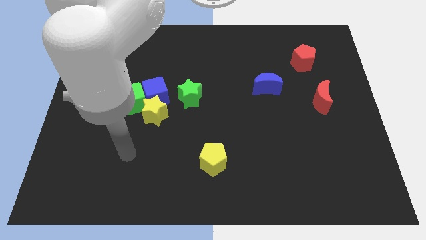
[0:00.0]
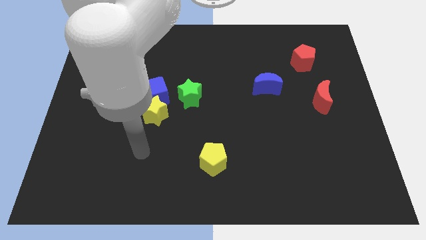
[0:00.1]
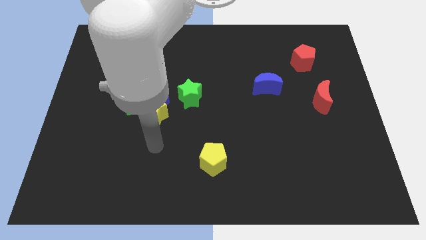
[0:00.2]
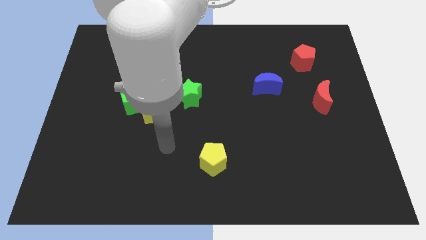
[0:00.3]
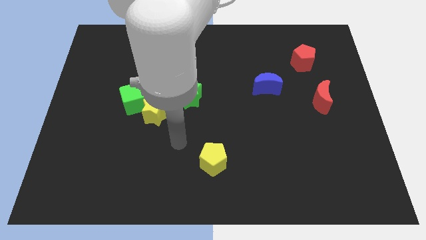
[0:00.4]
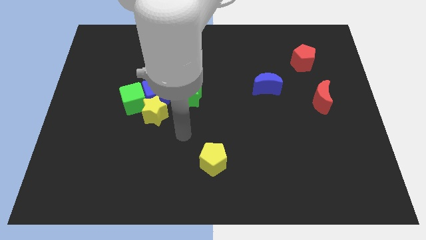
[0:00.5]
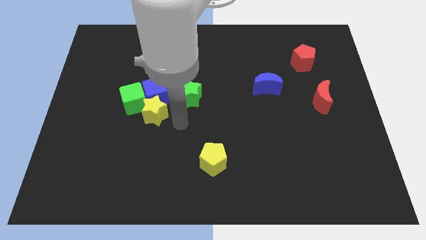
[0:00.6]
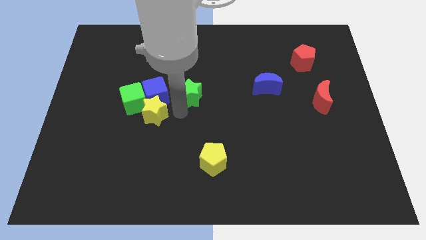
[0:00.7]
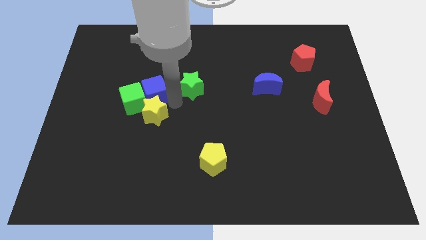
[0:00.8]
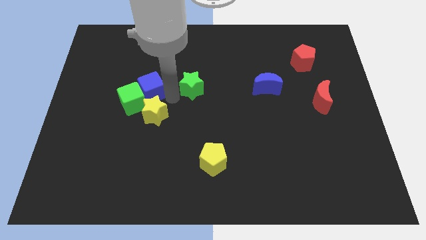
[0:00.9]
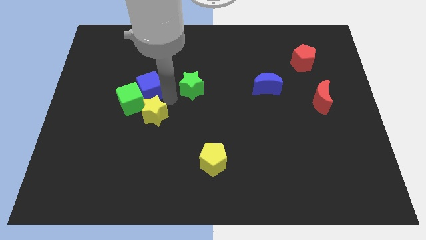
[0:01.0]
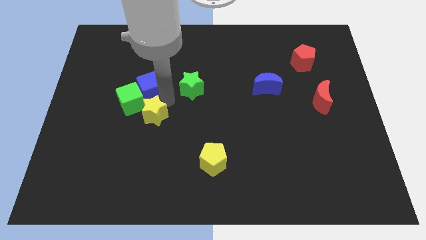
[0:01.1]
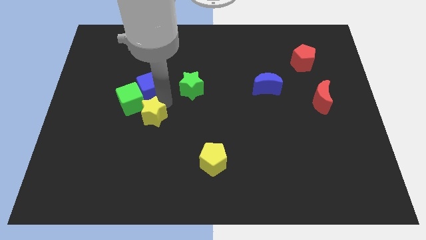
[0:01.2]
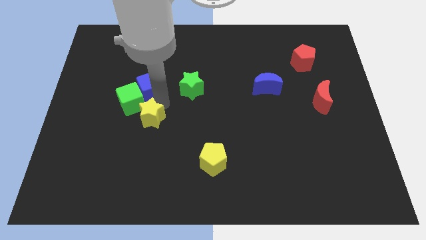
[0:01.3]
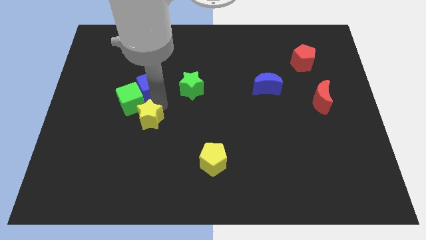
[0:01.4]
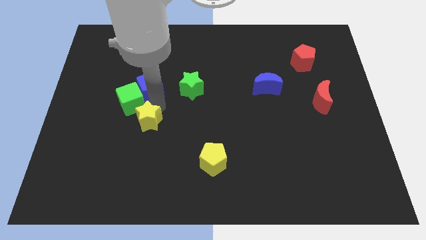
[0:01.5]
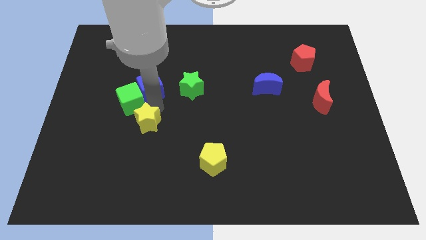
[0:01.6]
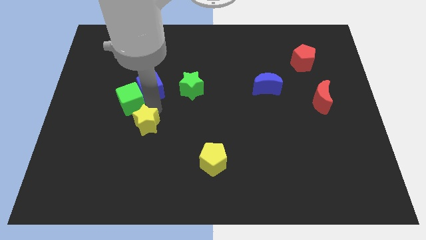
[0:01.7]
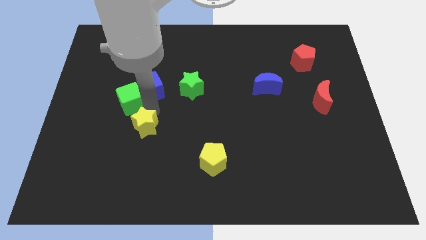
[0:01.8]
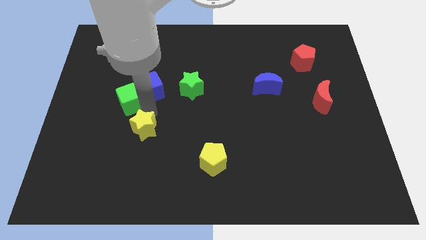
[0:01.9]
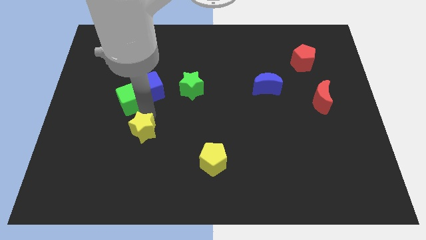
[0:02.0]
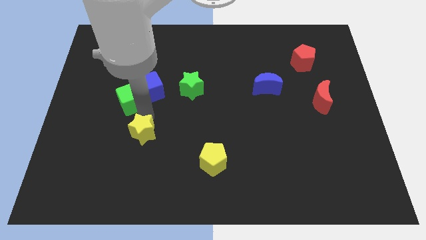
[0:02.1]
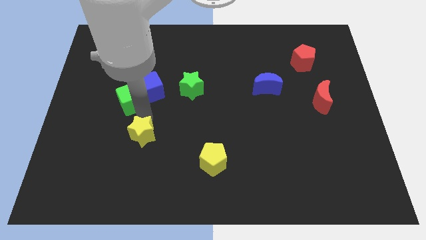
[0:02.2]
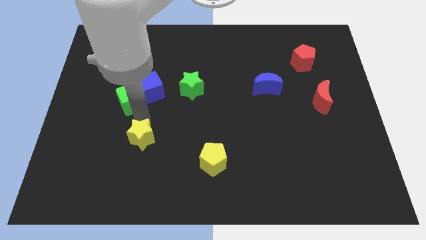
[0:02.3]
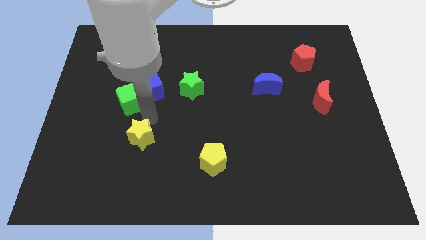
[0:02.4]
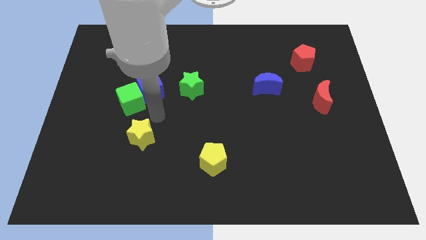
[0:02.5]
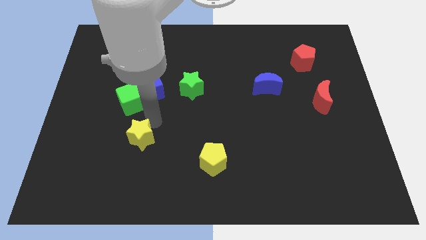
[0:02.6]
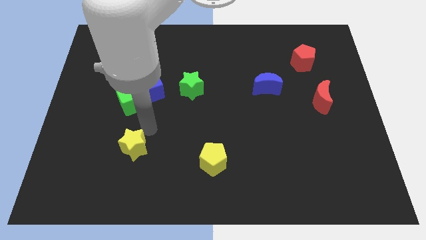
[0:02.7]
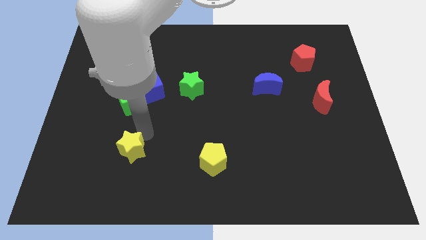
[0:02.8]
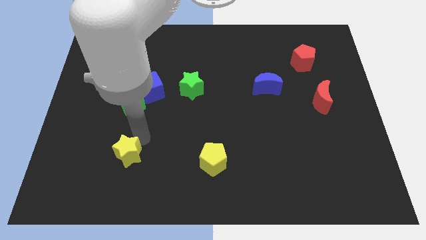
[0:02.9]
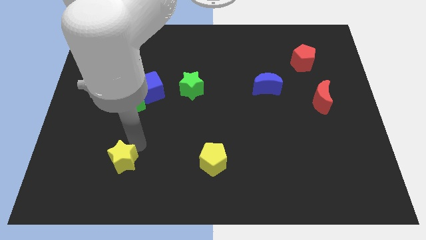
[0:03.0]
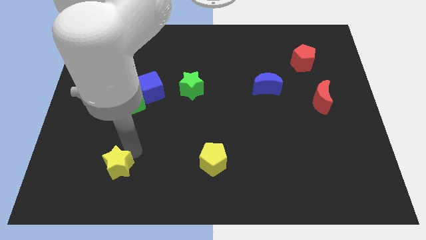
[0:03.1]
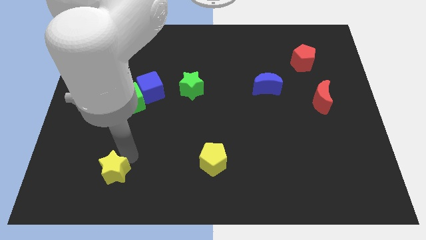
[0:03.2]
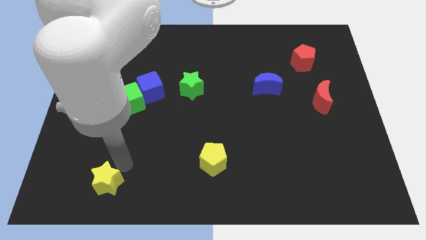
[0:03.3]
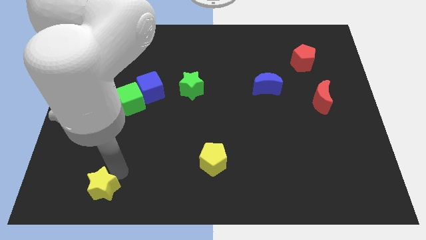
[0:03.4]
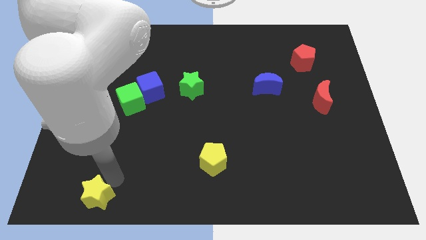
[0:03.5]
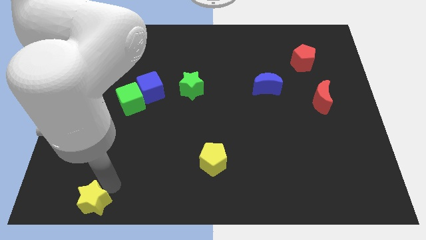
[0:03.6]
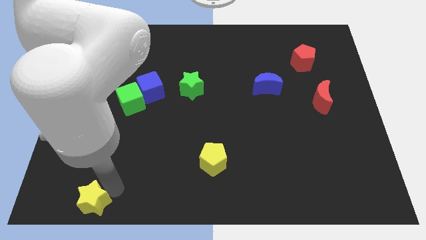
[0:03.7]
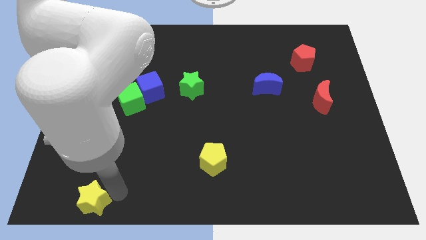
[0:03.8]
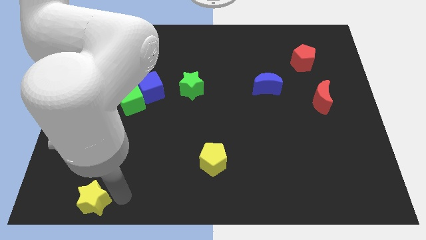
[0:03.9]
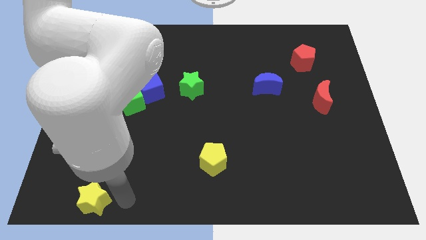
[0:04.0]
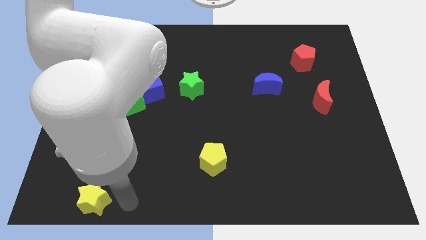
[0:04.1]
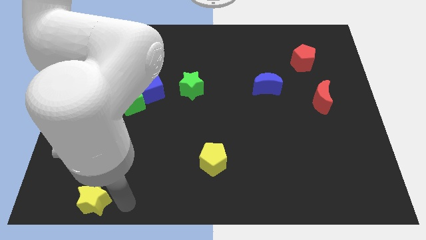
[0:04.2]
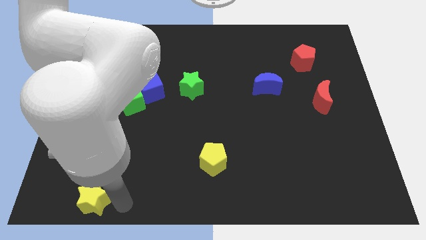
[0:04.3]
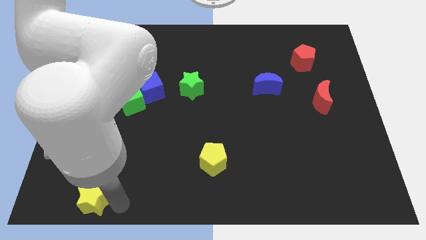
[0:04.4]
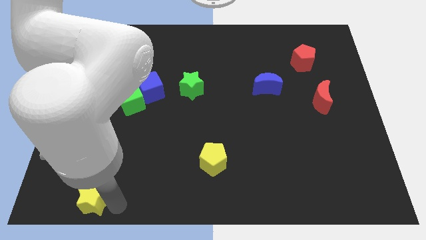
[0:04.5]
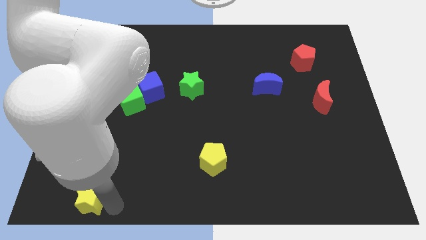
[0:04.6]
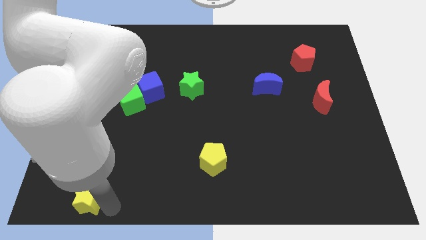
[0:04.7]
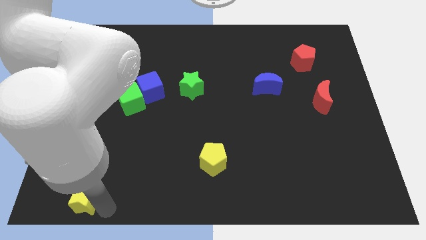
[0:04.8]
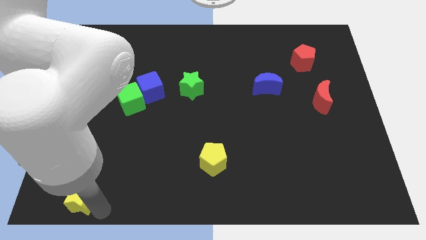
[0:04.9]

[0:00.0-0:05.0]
push the yellow star to the lower left corner

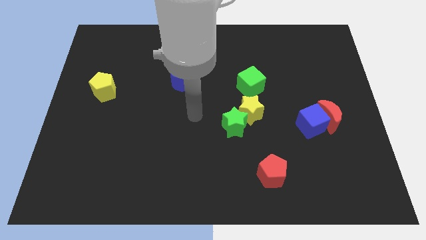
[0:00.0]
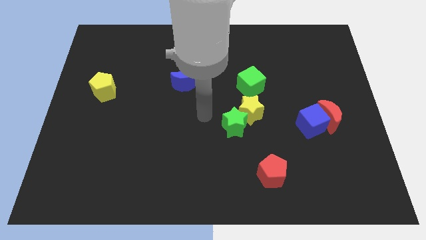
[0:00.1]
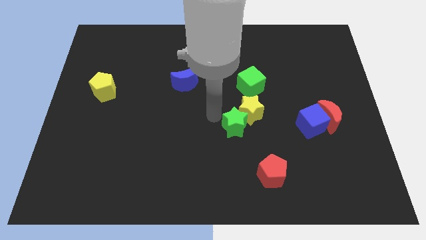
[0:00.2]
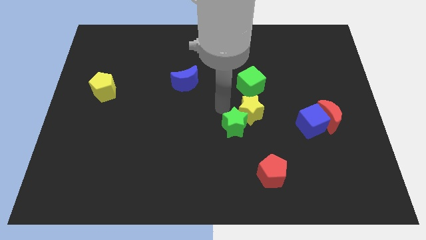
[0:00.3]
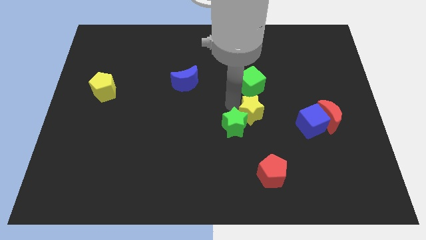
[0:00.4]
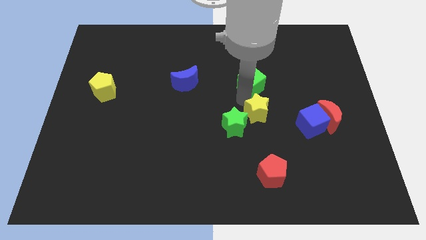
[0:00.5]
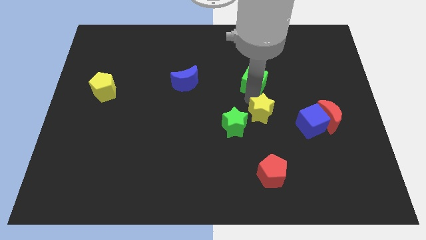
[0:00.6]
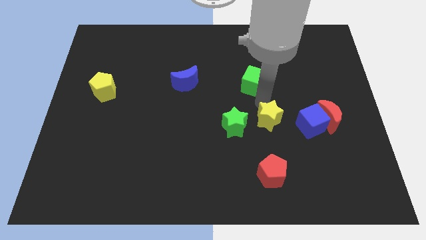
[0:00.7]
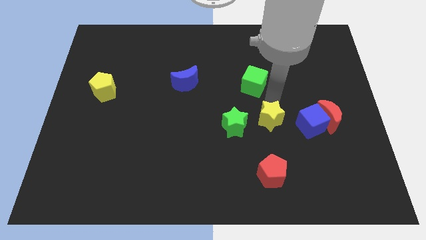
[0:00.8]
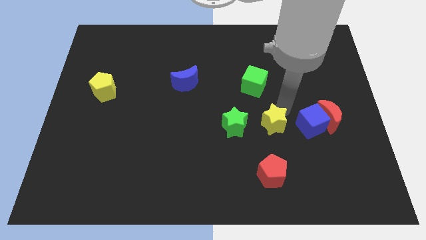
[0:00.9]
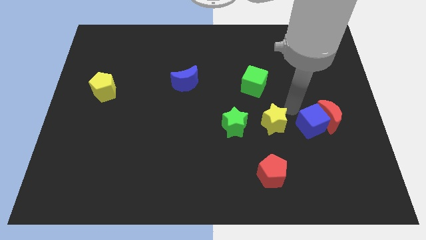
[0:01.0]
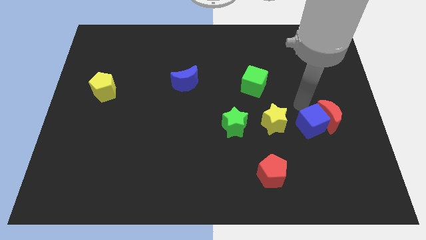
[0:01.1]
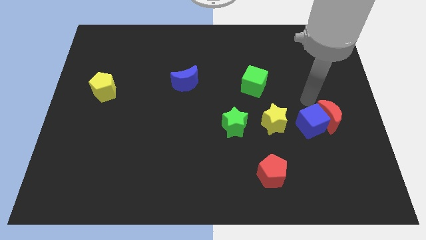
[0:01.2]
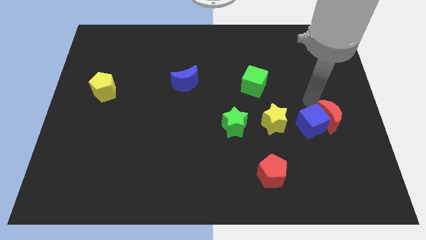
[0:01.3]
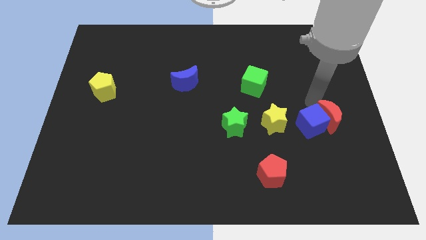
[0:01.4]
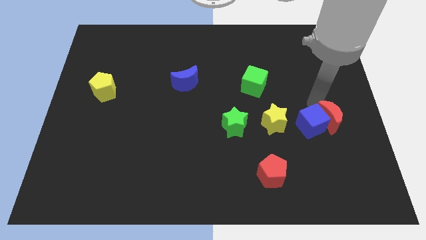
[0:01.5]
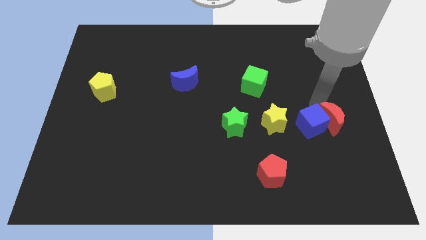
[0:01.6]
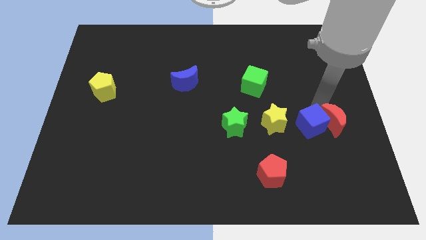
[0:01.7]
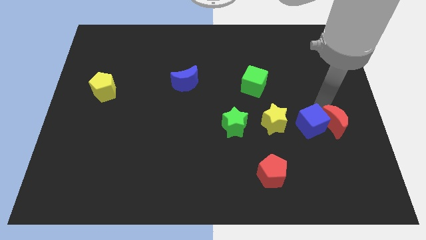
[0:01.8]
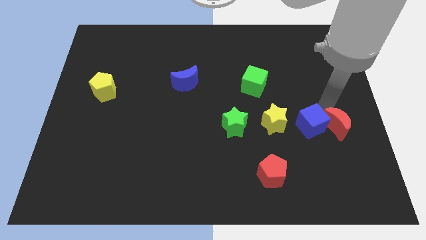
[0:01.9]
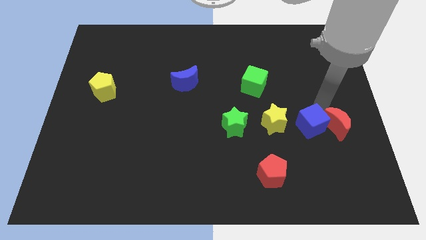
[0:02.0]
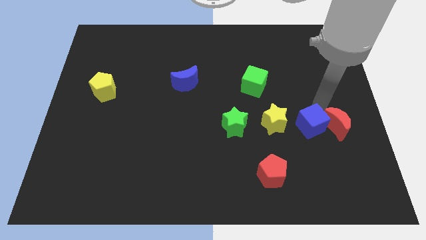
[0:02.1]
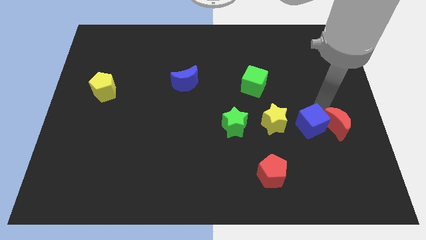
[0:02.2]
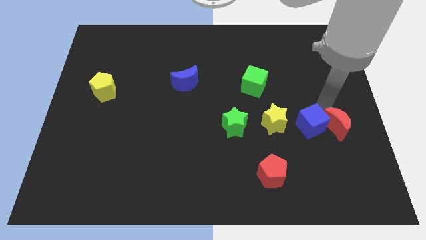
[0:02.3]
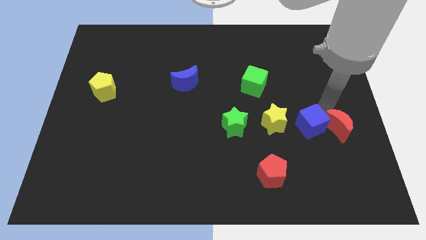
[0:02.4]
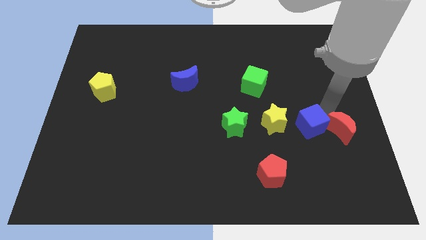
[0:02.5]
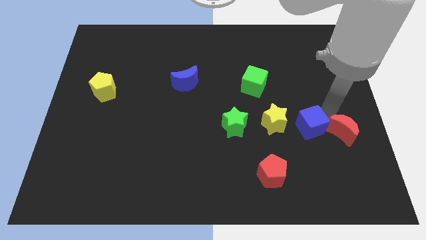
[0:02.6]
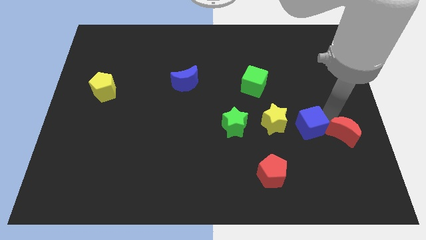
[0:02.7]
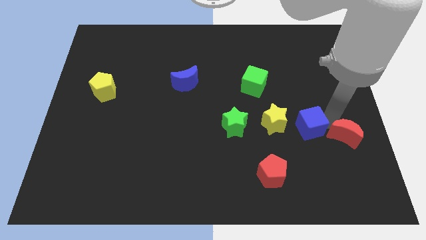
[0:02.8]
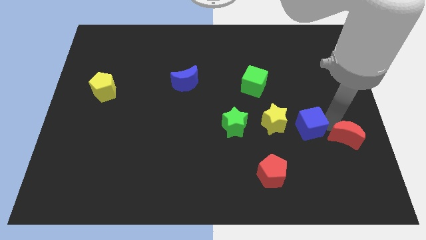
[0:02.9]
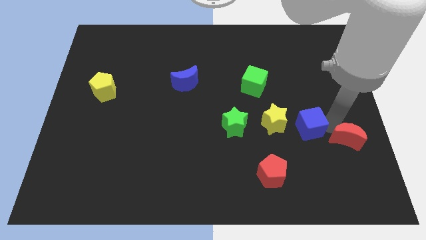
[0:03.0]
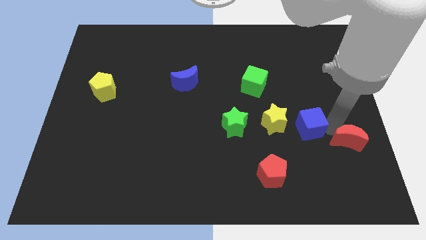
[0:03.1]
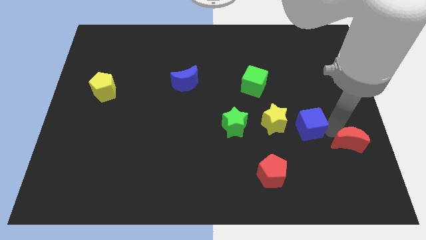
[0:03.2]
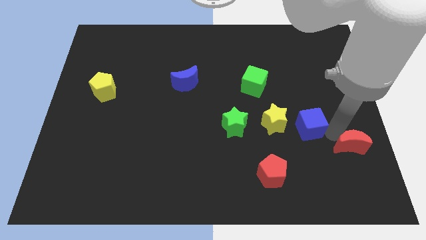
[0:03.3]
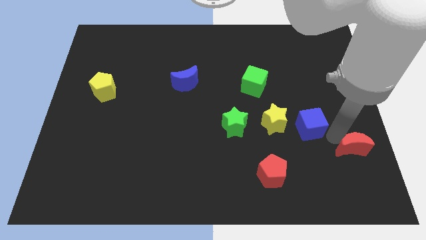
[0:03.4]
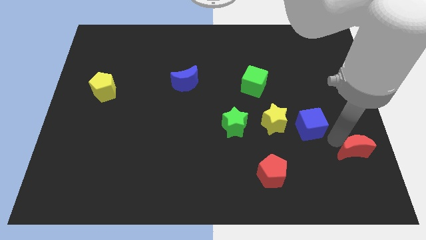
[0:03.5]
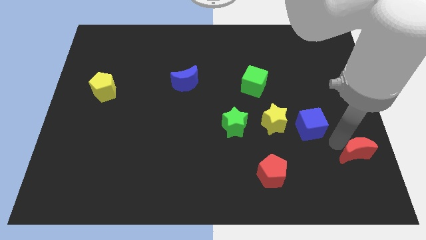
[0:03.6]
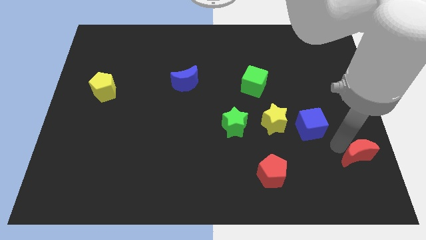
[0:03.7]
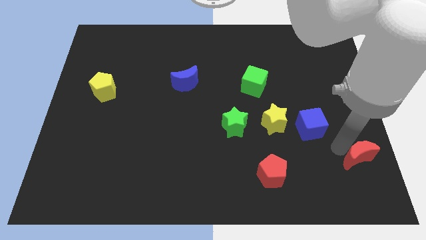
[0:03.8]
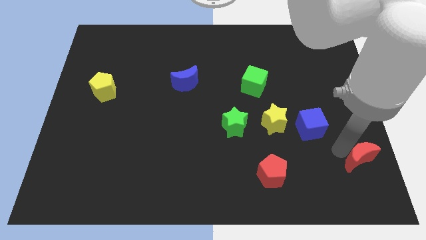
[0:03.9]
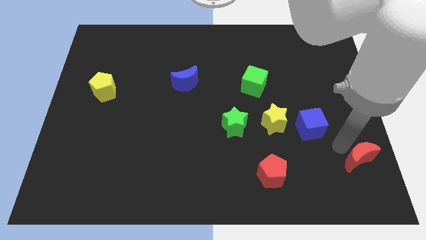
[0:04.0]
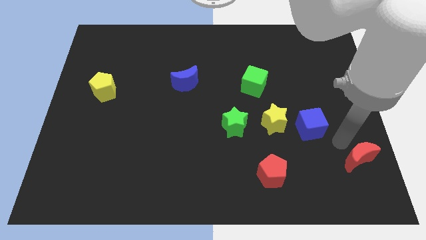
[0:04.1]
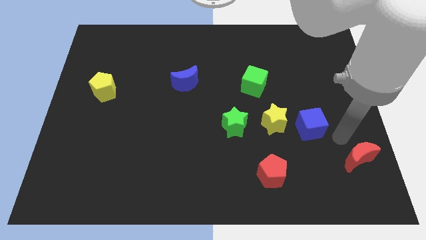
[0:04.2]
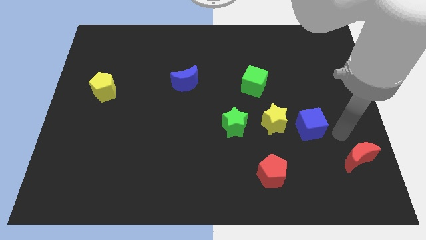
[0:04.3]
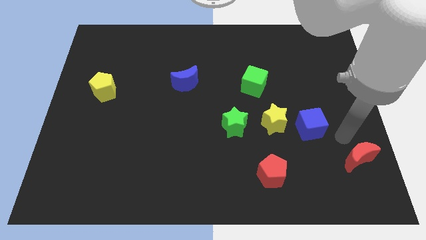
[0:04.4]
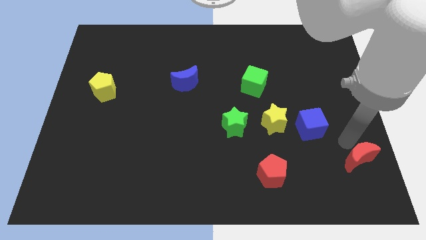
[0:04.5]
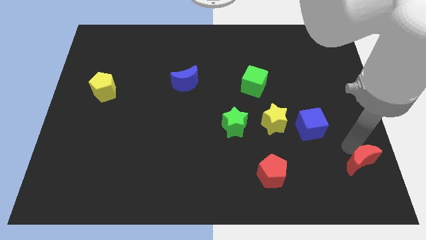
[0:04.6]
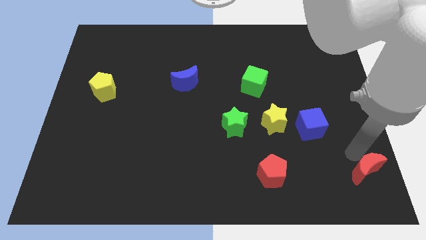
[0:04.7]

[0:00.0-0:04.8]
put the red moon to the bottom right
